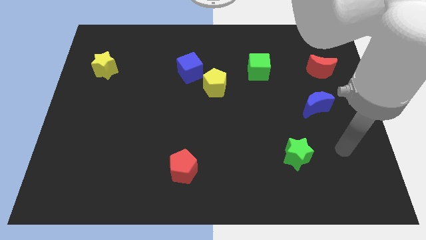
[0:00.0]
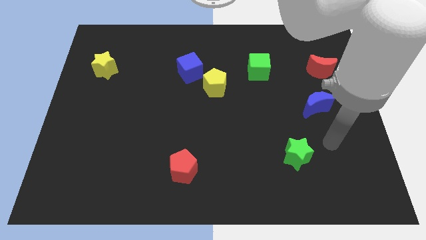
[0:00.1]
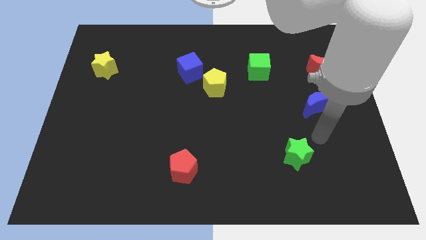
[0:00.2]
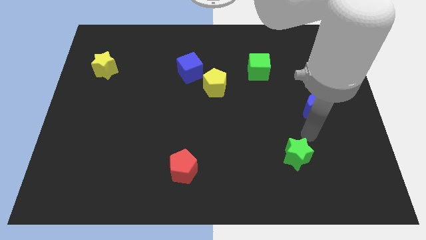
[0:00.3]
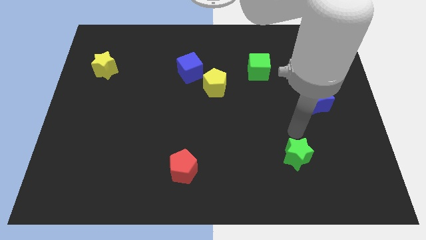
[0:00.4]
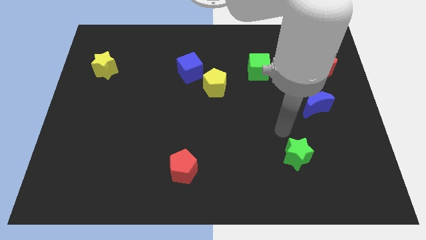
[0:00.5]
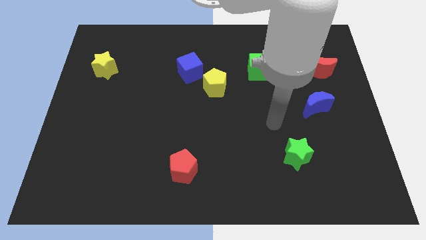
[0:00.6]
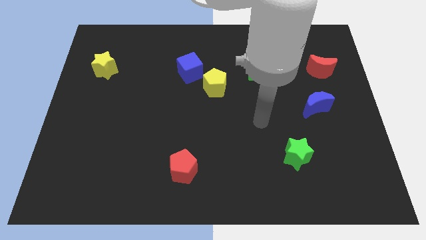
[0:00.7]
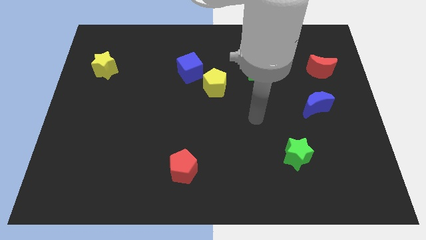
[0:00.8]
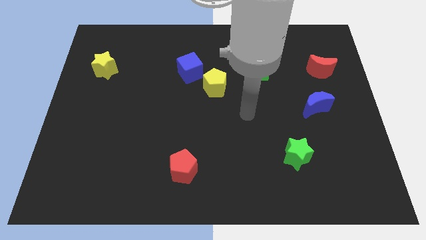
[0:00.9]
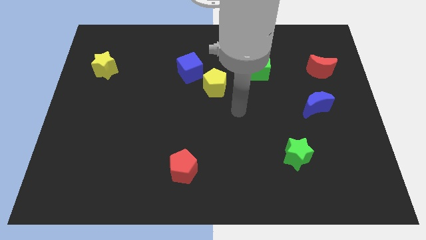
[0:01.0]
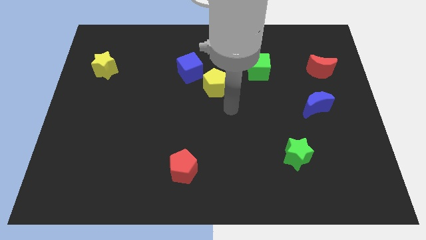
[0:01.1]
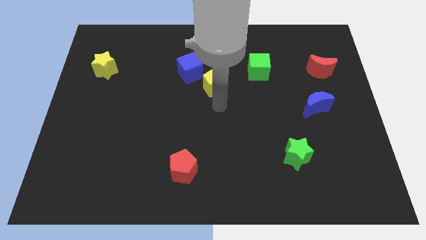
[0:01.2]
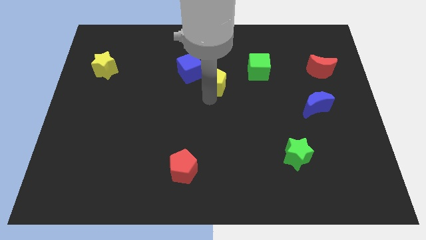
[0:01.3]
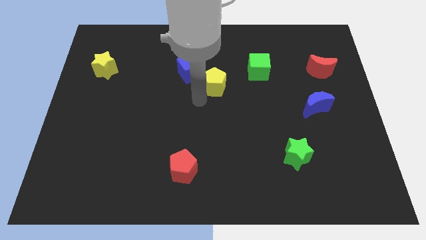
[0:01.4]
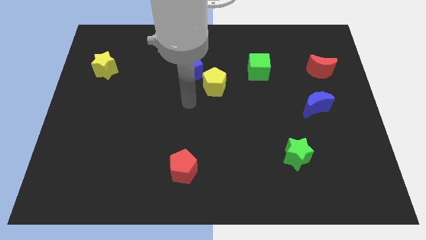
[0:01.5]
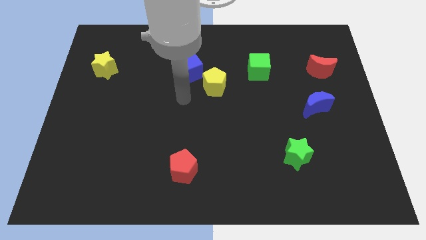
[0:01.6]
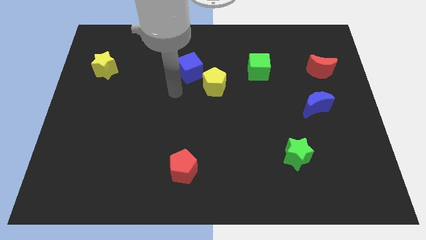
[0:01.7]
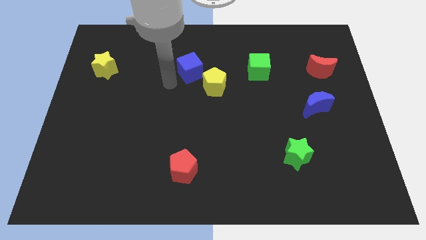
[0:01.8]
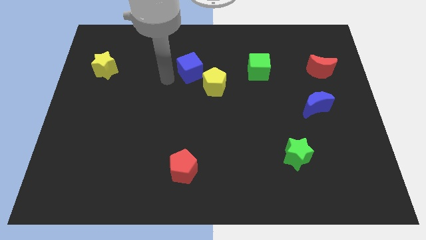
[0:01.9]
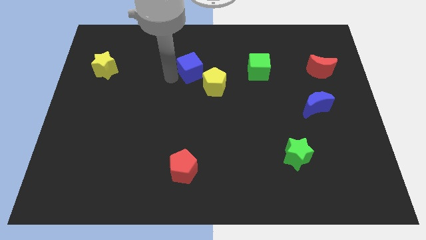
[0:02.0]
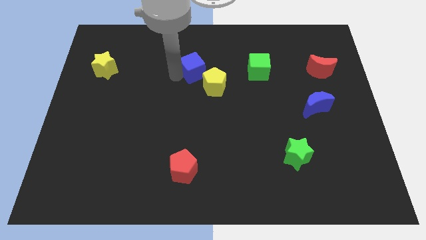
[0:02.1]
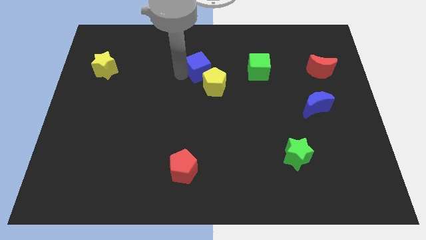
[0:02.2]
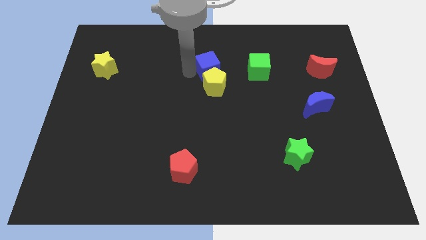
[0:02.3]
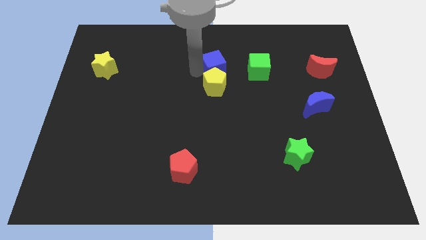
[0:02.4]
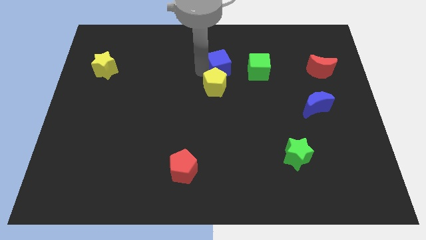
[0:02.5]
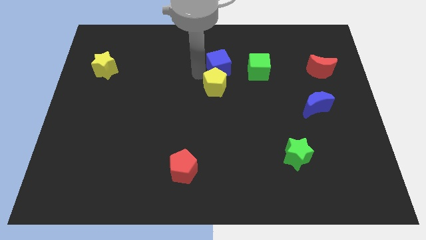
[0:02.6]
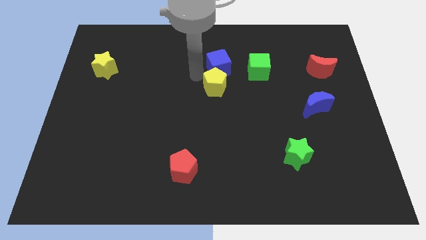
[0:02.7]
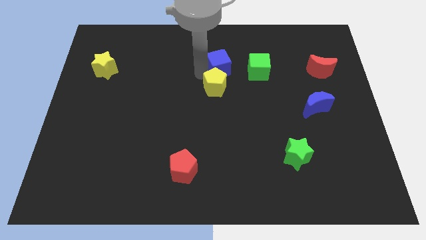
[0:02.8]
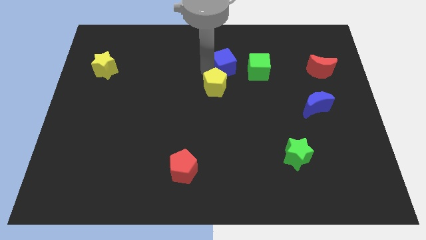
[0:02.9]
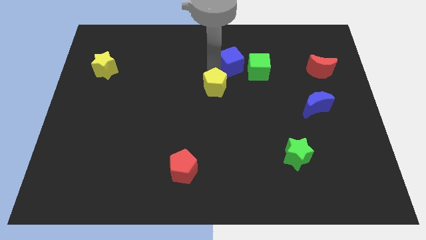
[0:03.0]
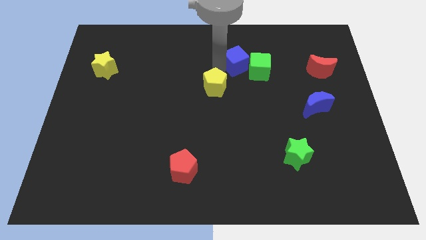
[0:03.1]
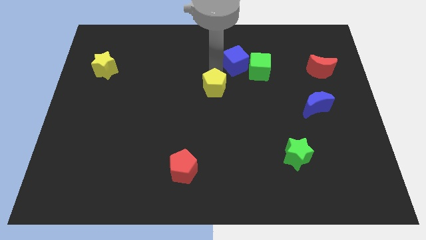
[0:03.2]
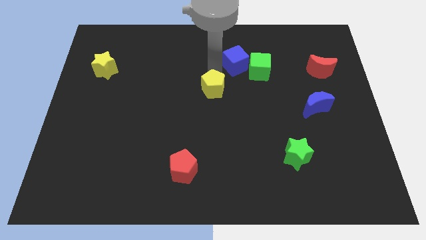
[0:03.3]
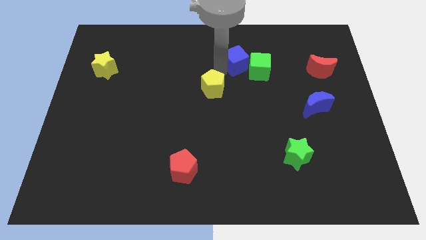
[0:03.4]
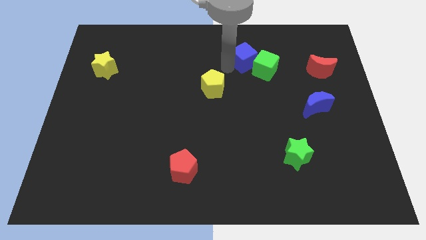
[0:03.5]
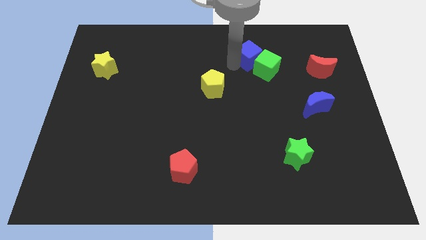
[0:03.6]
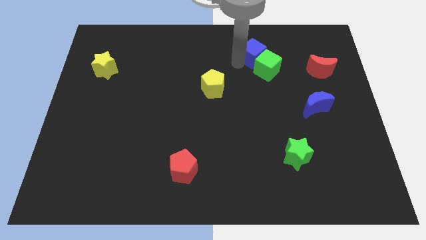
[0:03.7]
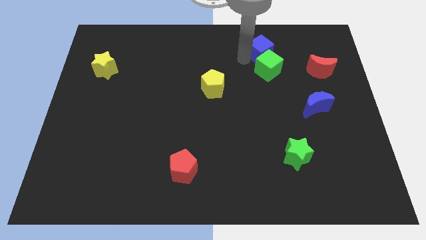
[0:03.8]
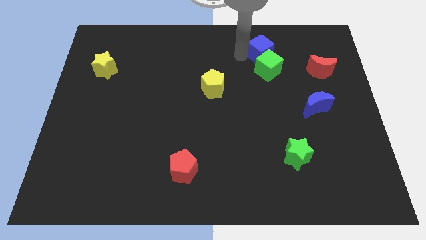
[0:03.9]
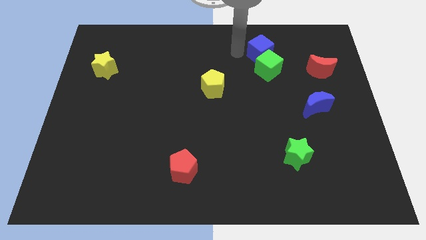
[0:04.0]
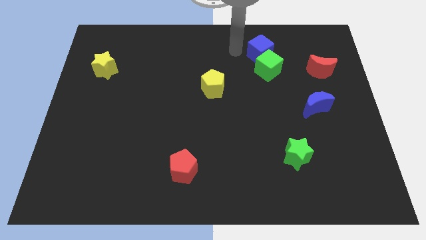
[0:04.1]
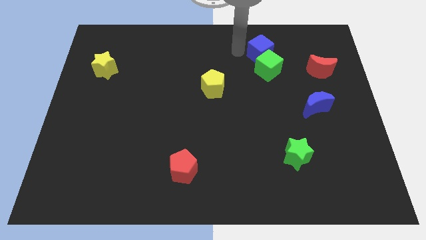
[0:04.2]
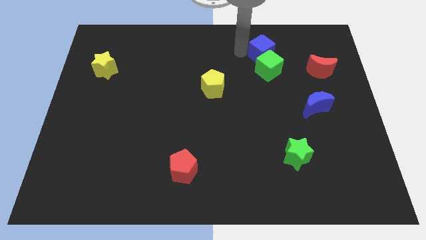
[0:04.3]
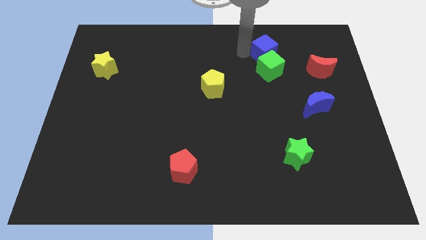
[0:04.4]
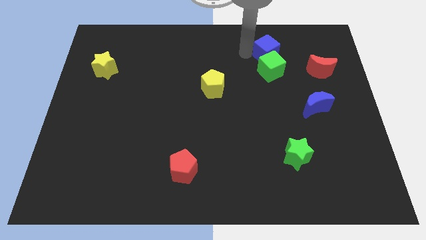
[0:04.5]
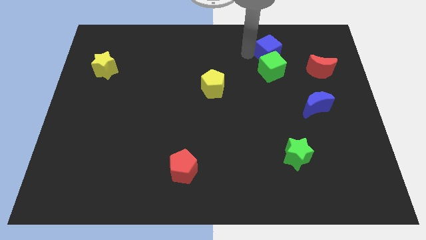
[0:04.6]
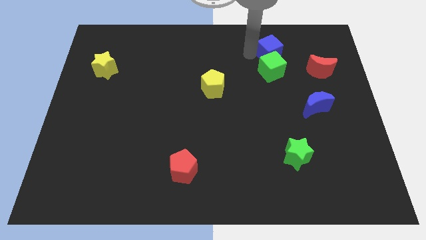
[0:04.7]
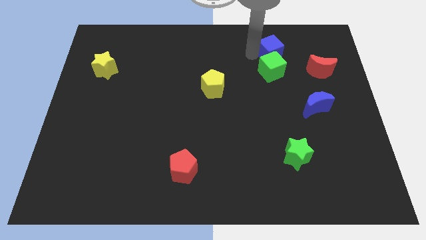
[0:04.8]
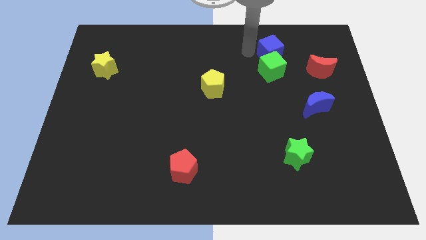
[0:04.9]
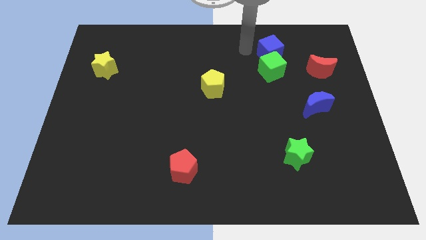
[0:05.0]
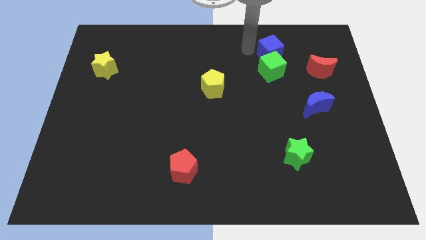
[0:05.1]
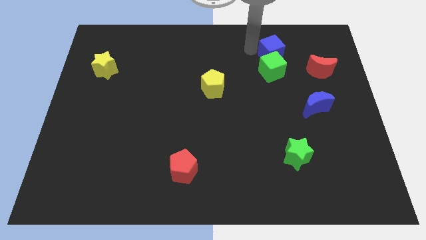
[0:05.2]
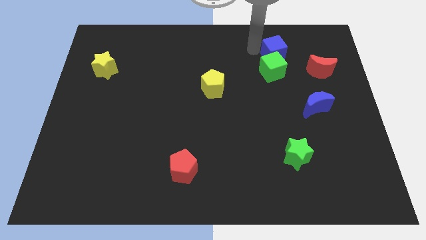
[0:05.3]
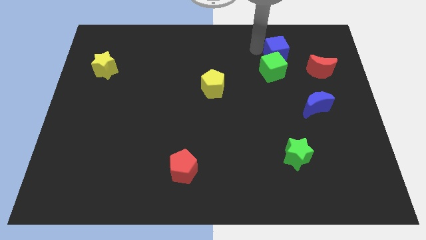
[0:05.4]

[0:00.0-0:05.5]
put the blue cube to the top left side of the red moon

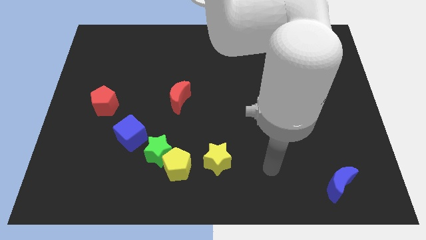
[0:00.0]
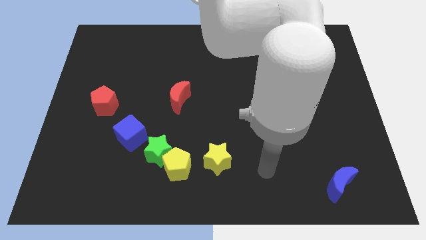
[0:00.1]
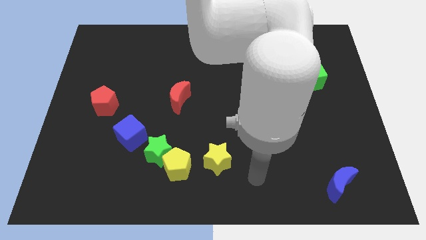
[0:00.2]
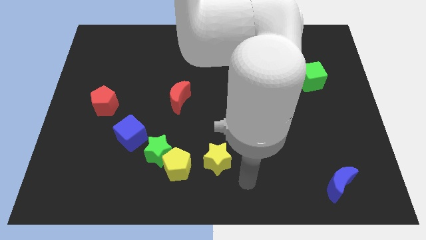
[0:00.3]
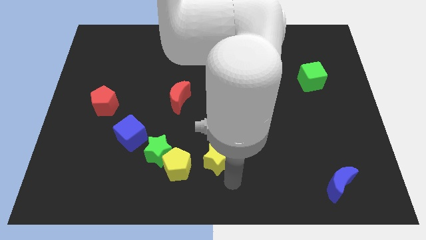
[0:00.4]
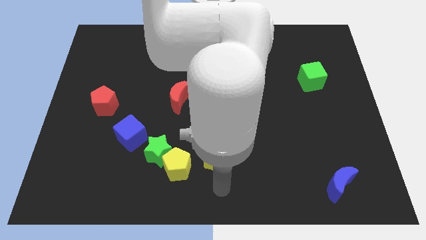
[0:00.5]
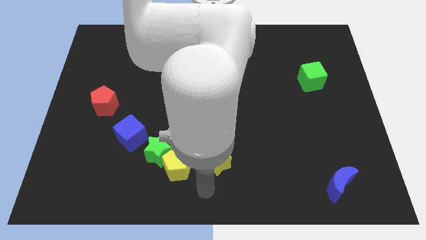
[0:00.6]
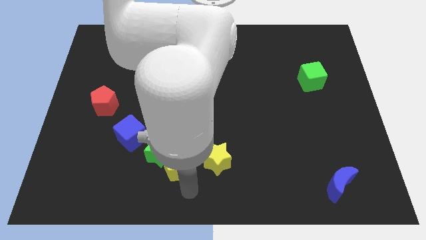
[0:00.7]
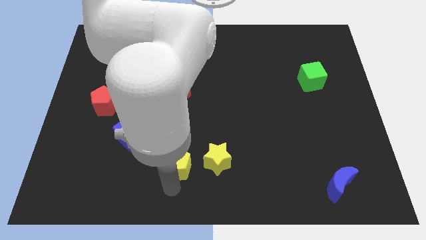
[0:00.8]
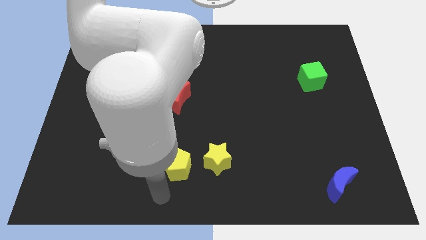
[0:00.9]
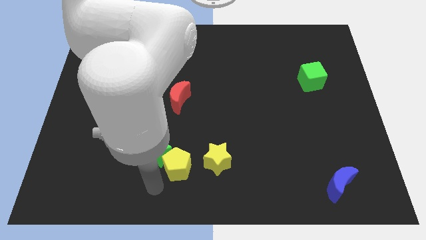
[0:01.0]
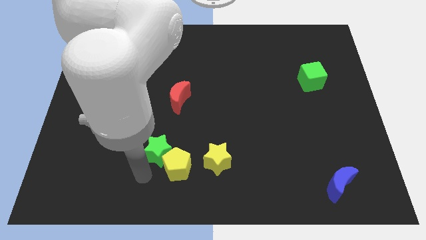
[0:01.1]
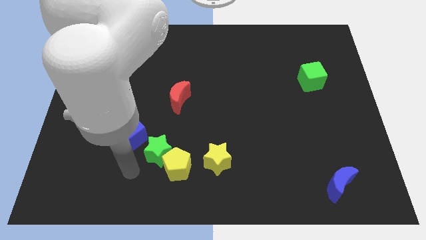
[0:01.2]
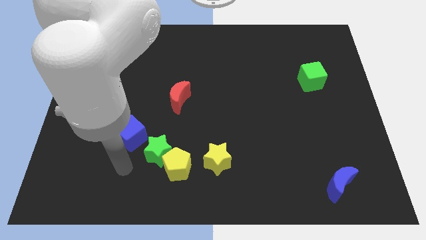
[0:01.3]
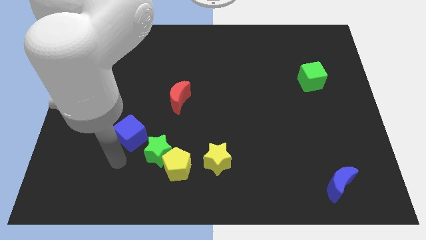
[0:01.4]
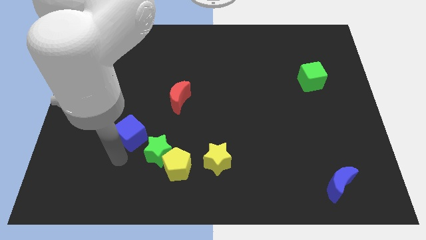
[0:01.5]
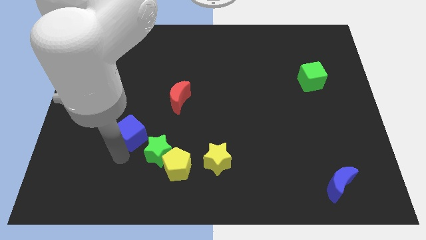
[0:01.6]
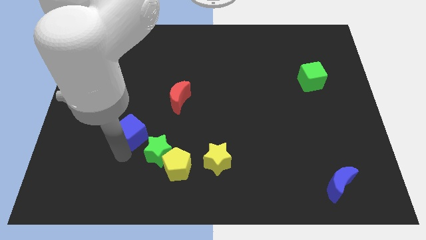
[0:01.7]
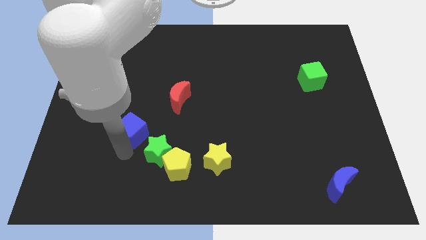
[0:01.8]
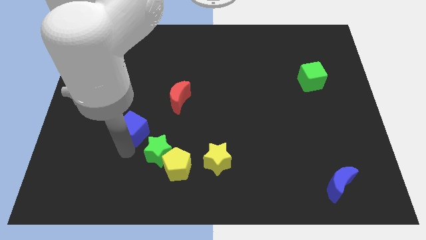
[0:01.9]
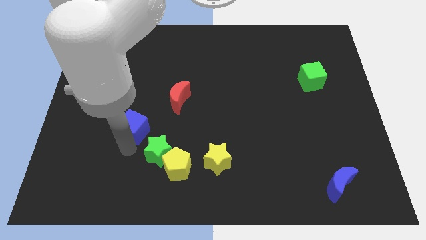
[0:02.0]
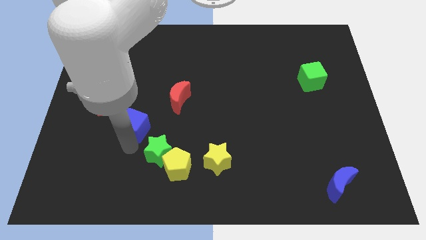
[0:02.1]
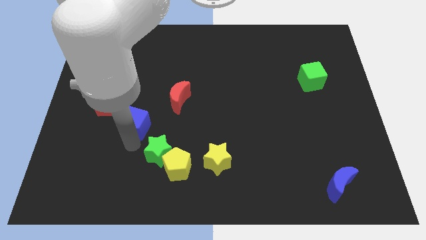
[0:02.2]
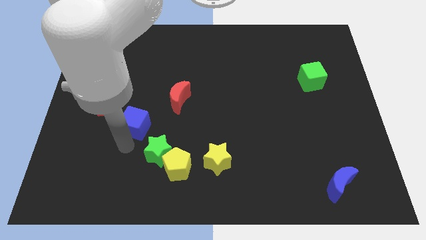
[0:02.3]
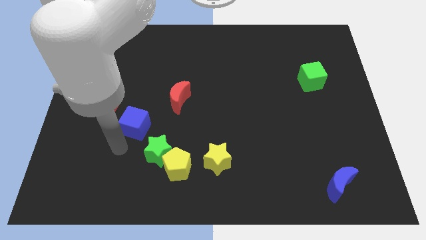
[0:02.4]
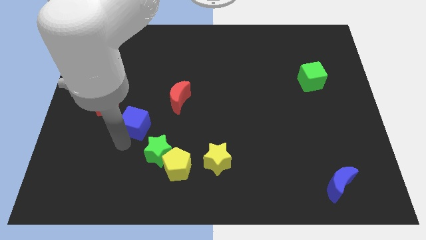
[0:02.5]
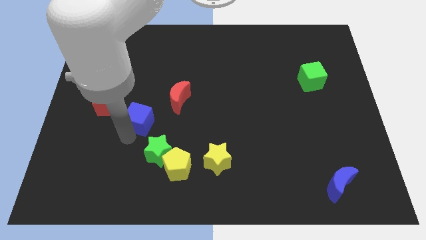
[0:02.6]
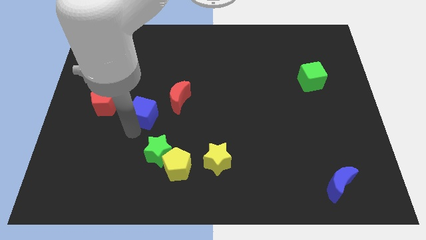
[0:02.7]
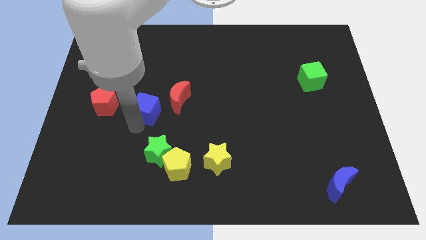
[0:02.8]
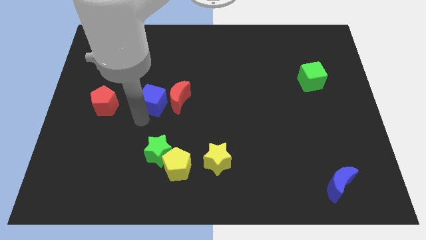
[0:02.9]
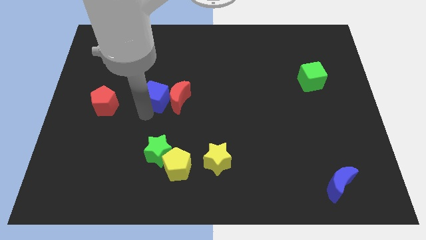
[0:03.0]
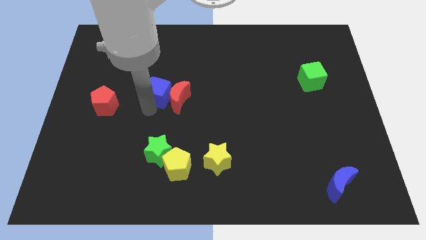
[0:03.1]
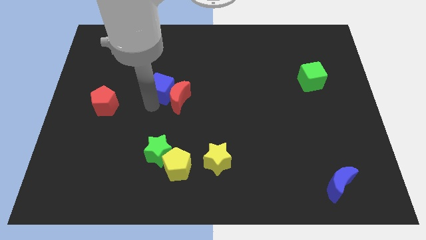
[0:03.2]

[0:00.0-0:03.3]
slide the blue cube to the top side of the red moon
